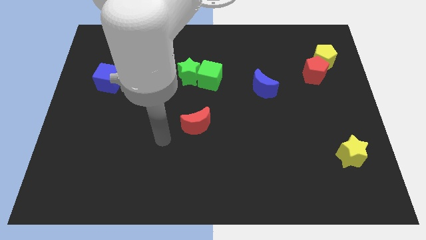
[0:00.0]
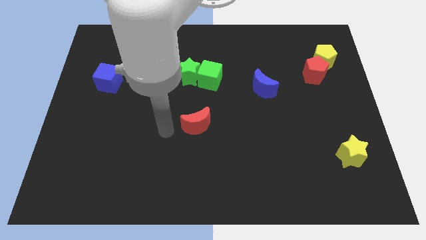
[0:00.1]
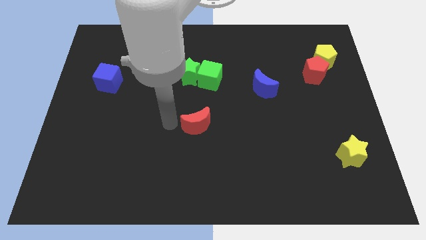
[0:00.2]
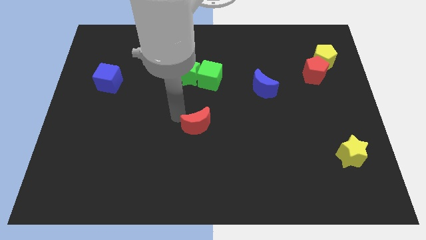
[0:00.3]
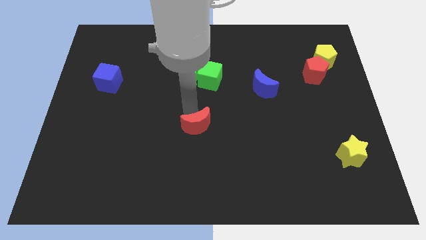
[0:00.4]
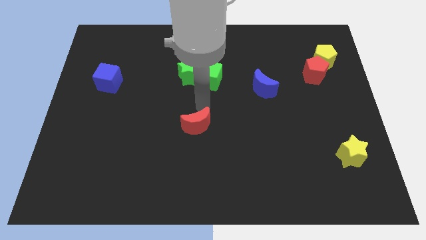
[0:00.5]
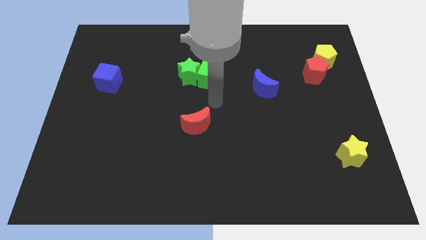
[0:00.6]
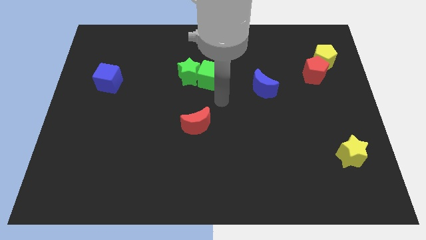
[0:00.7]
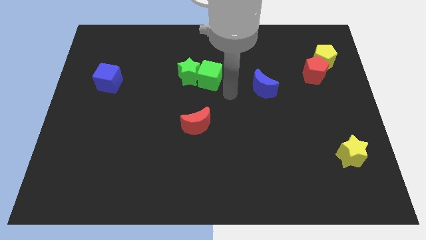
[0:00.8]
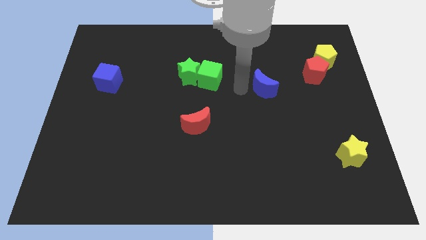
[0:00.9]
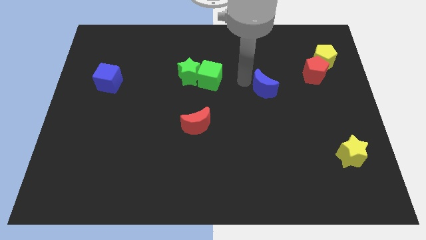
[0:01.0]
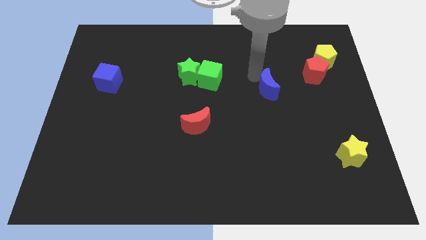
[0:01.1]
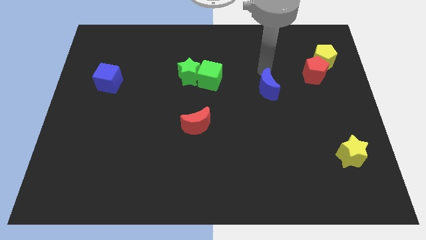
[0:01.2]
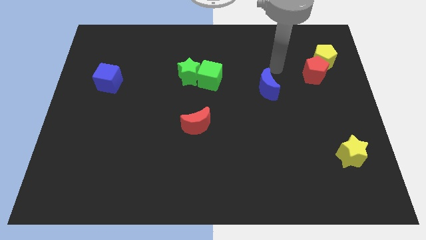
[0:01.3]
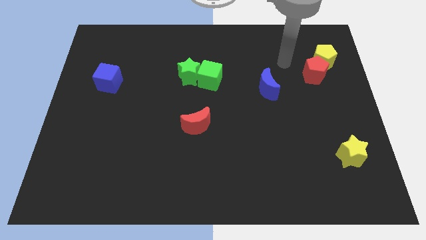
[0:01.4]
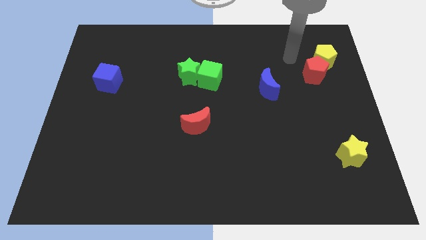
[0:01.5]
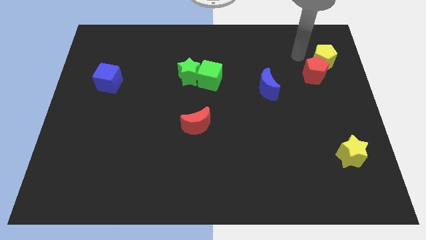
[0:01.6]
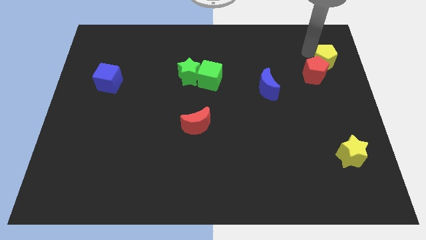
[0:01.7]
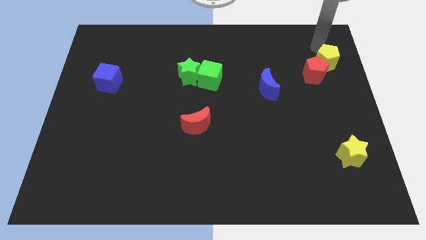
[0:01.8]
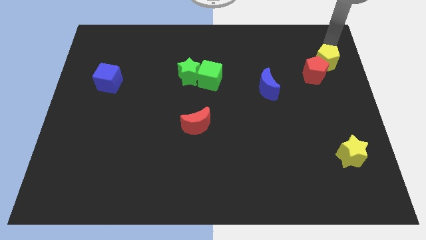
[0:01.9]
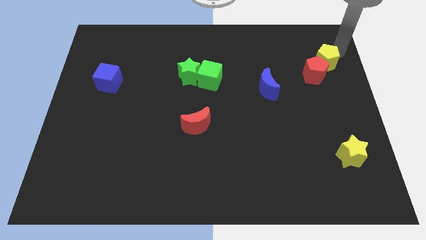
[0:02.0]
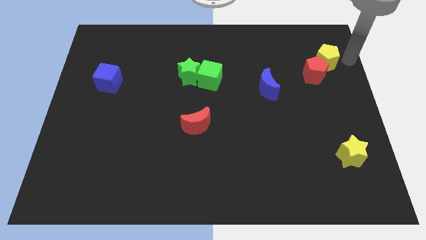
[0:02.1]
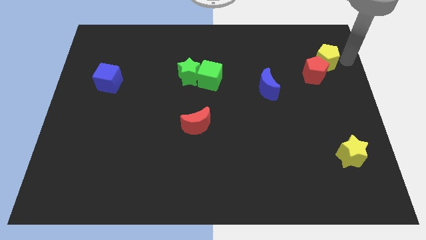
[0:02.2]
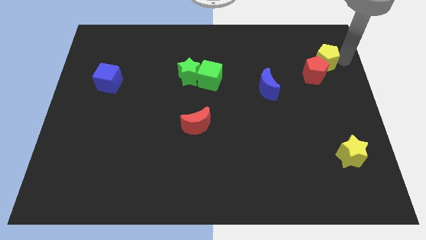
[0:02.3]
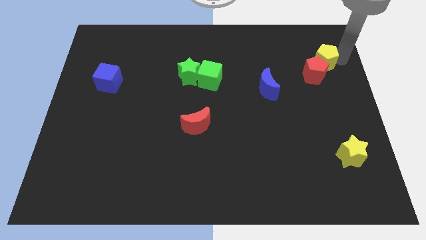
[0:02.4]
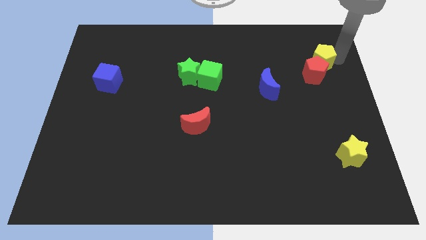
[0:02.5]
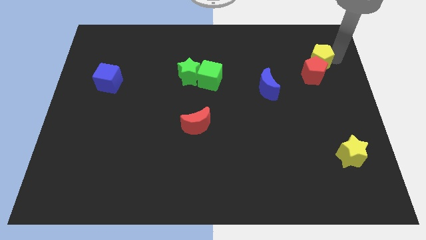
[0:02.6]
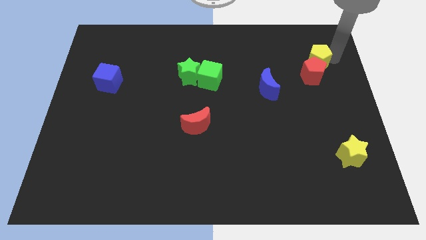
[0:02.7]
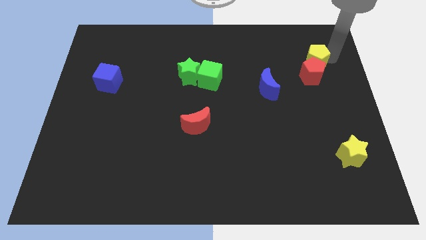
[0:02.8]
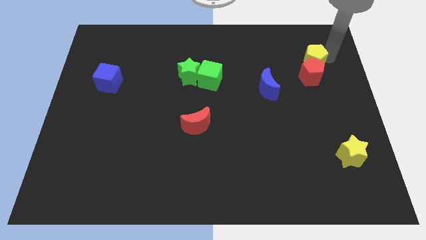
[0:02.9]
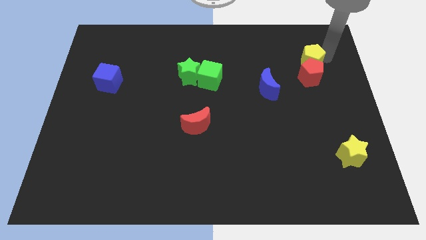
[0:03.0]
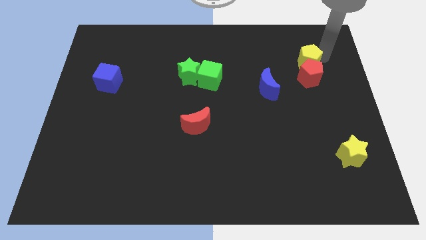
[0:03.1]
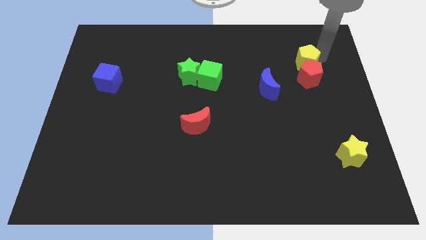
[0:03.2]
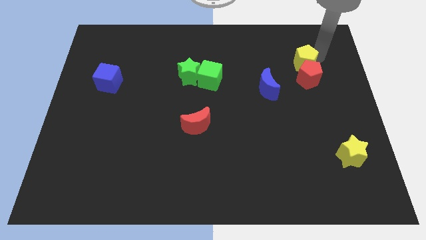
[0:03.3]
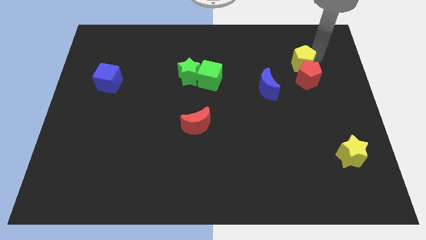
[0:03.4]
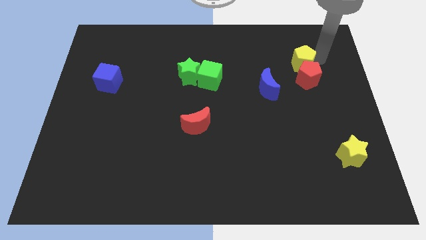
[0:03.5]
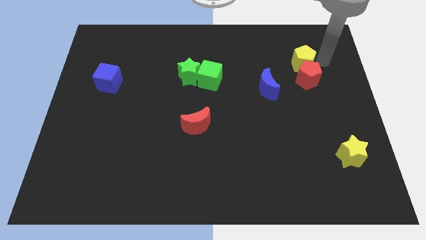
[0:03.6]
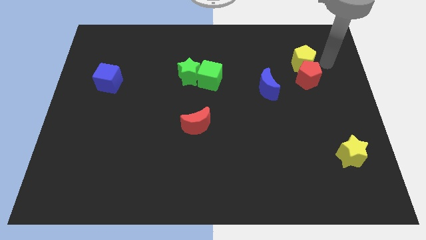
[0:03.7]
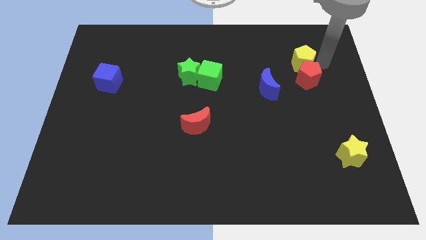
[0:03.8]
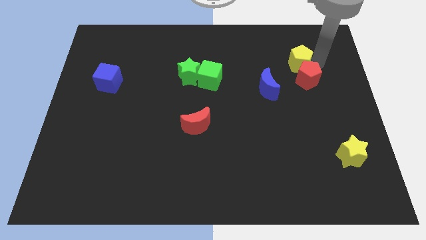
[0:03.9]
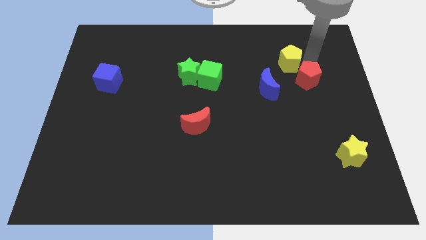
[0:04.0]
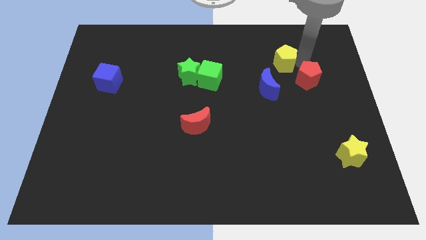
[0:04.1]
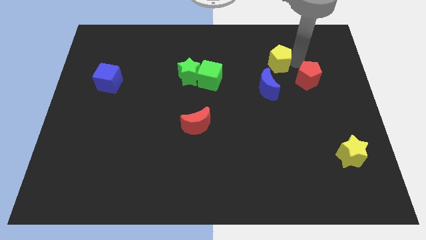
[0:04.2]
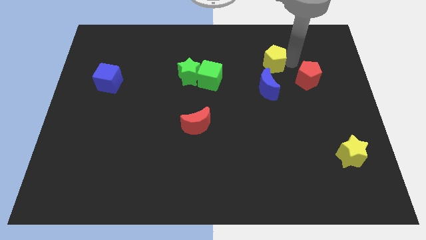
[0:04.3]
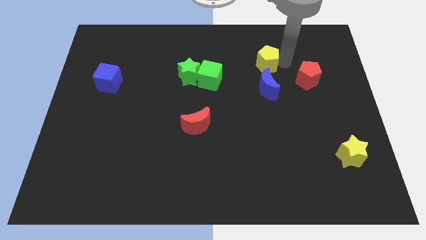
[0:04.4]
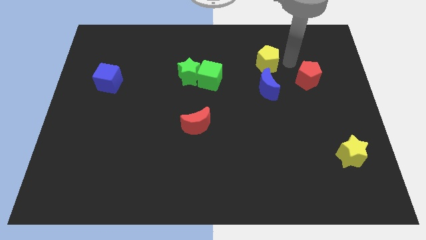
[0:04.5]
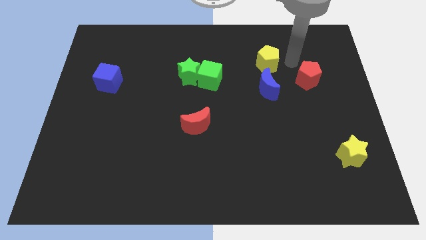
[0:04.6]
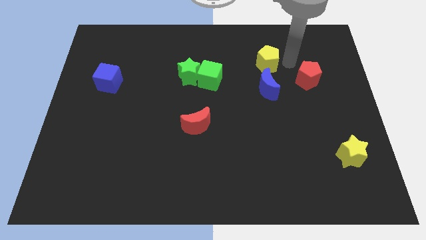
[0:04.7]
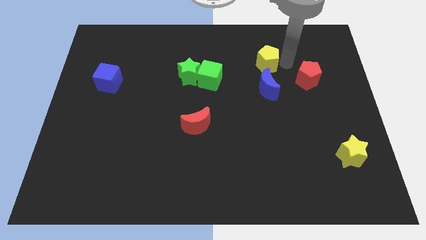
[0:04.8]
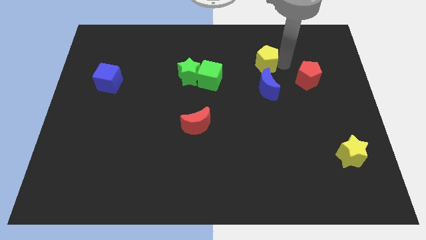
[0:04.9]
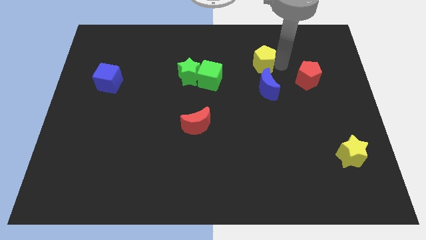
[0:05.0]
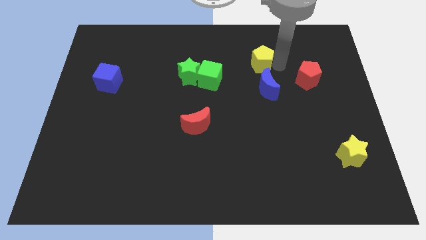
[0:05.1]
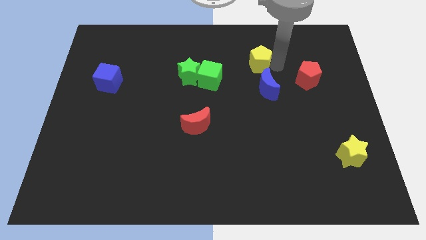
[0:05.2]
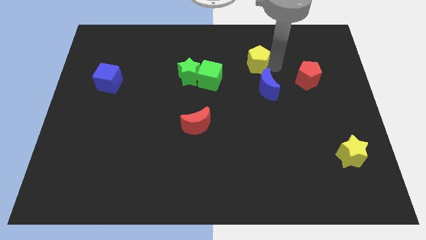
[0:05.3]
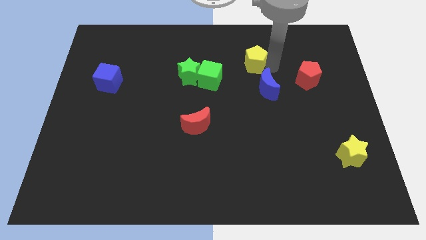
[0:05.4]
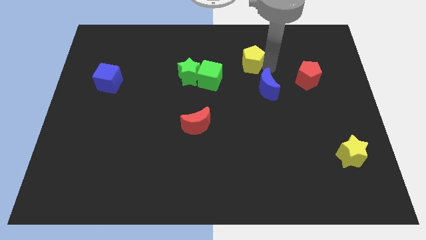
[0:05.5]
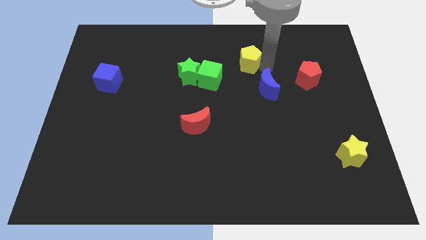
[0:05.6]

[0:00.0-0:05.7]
slide the yellow pentagon to the top right of the green cube
